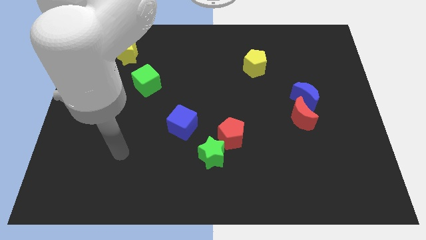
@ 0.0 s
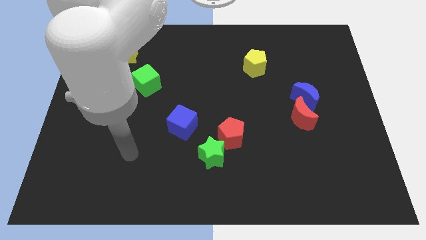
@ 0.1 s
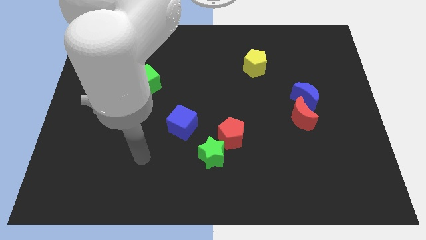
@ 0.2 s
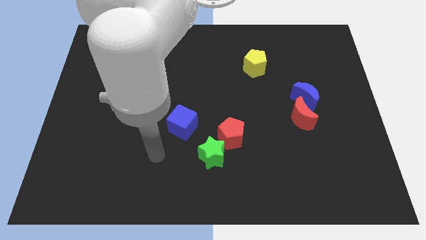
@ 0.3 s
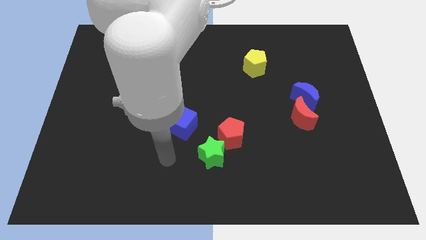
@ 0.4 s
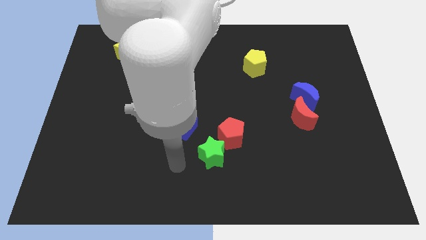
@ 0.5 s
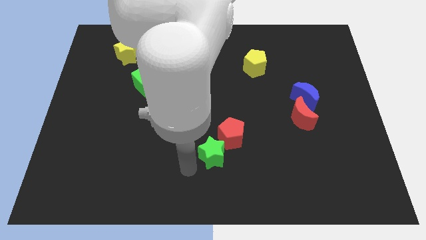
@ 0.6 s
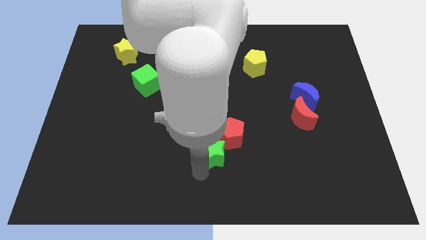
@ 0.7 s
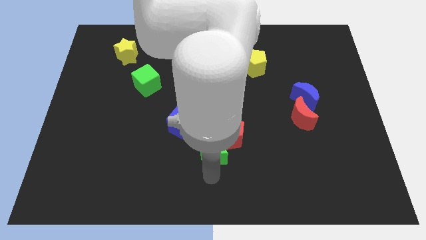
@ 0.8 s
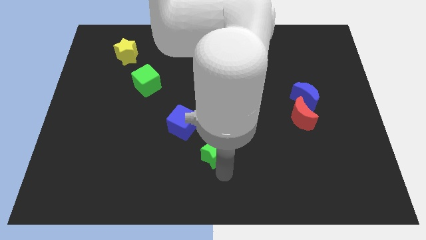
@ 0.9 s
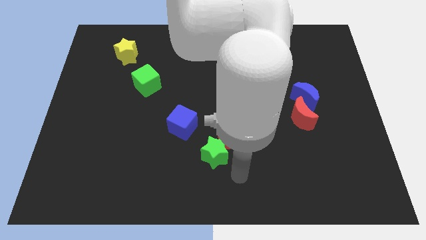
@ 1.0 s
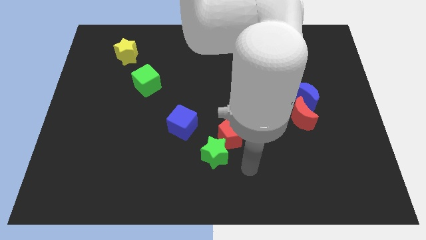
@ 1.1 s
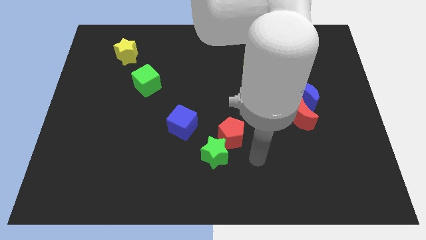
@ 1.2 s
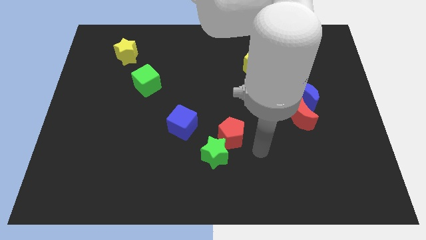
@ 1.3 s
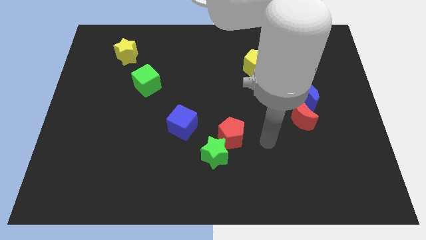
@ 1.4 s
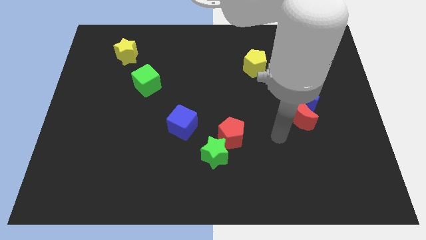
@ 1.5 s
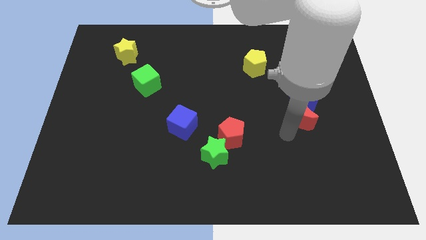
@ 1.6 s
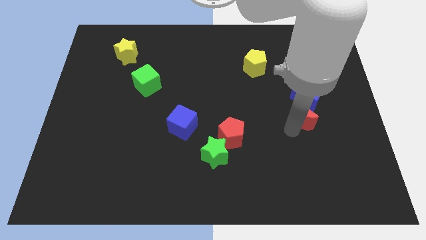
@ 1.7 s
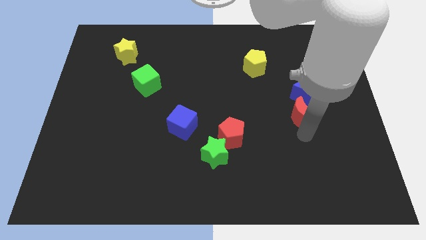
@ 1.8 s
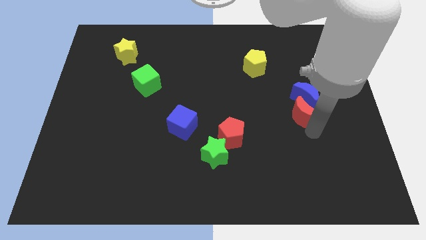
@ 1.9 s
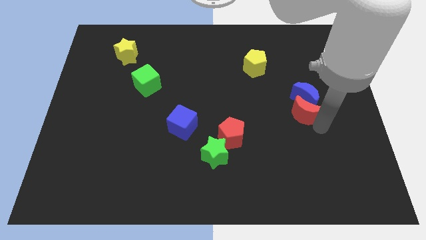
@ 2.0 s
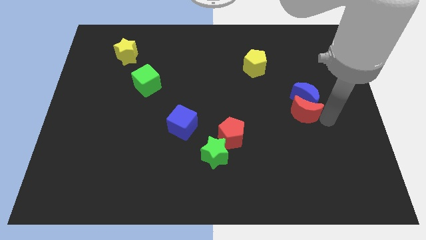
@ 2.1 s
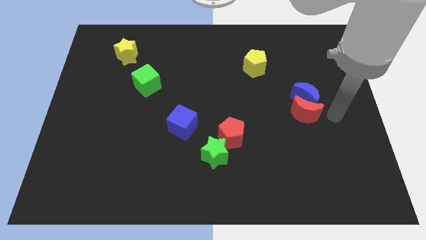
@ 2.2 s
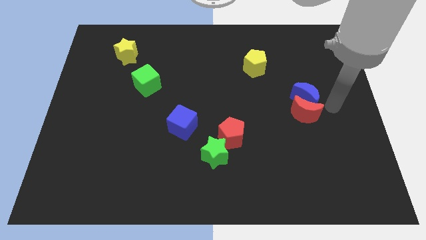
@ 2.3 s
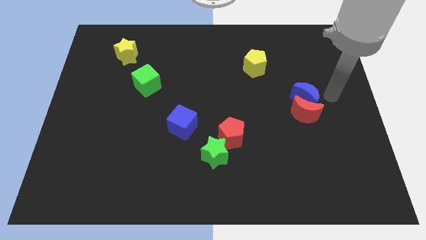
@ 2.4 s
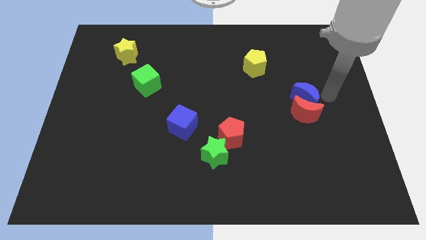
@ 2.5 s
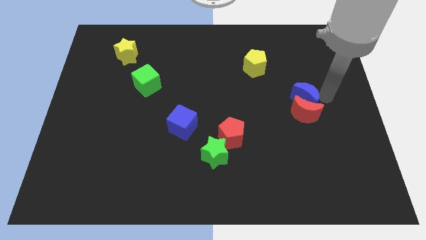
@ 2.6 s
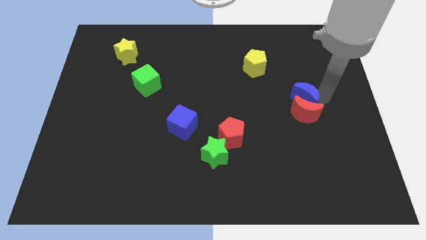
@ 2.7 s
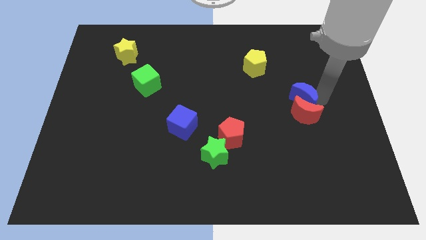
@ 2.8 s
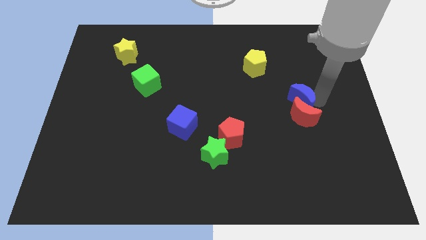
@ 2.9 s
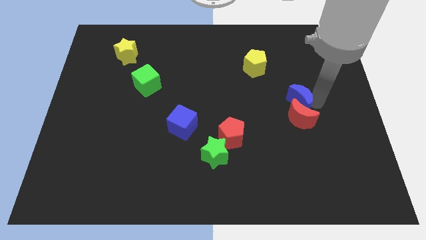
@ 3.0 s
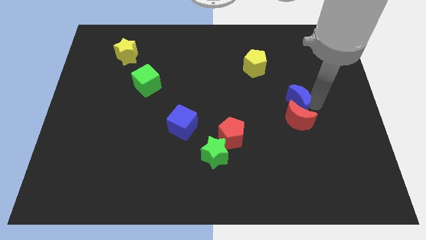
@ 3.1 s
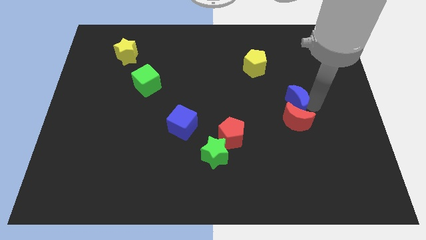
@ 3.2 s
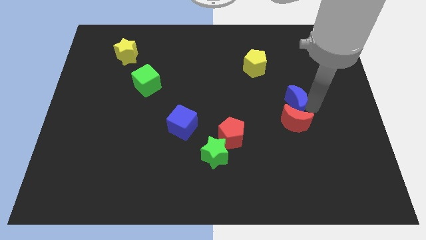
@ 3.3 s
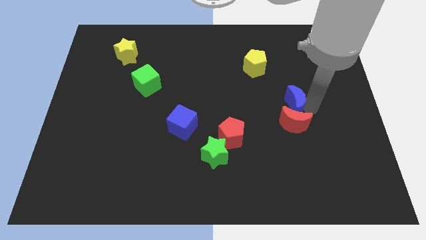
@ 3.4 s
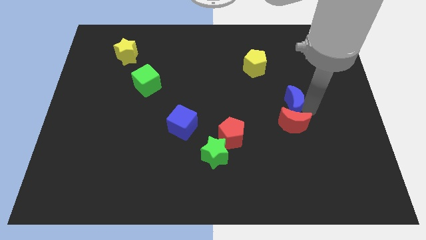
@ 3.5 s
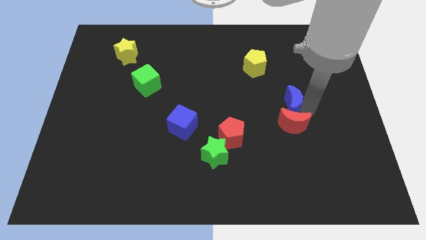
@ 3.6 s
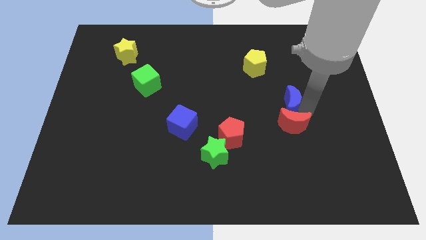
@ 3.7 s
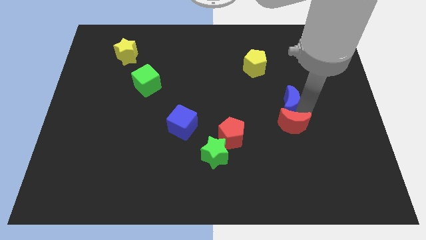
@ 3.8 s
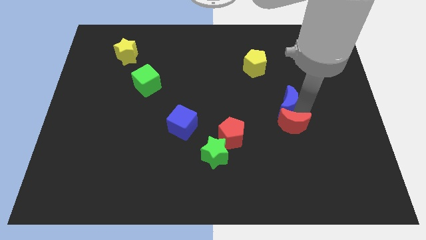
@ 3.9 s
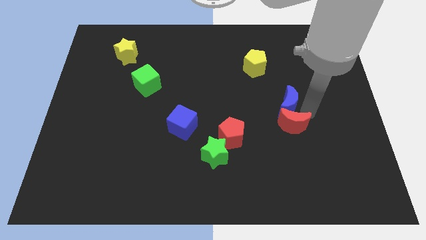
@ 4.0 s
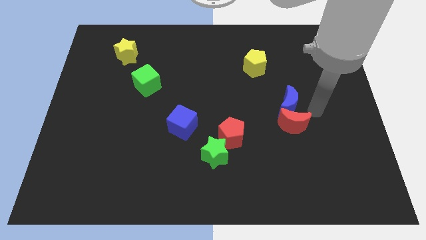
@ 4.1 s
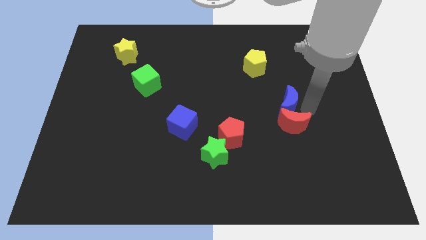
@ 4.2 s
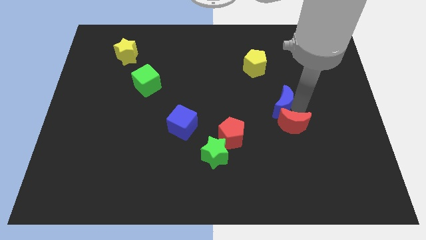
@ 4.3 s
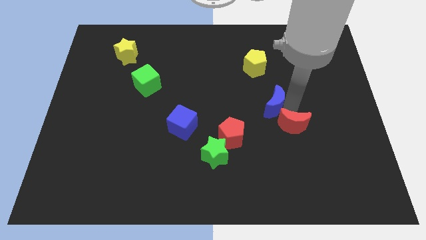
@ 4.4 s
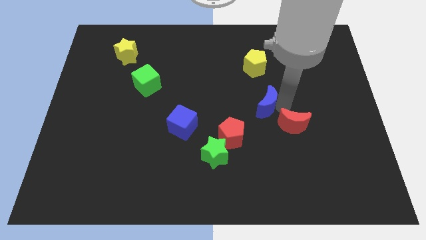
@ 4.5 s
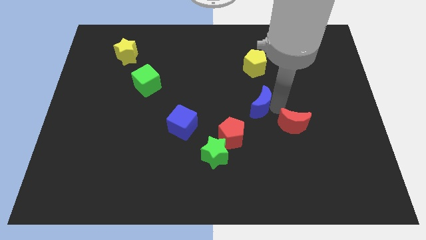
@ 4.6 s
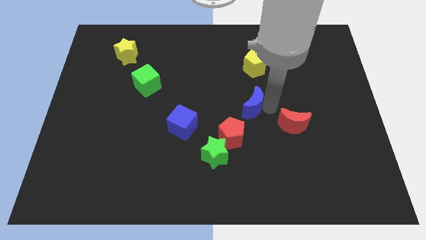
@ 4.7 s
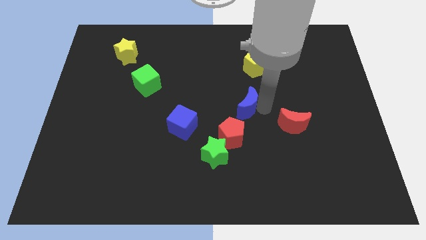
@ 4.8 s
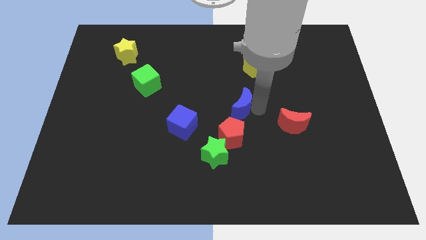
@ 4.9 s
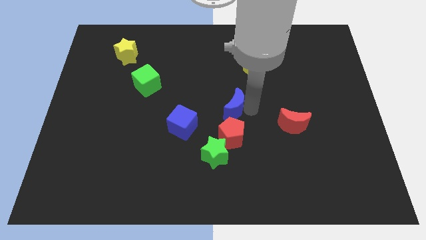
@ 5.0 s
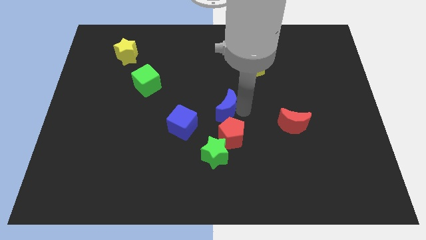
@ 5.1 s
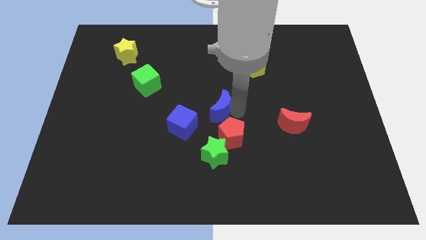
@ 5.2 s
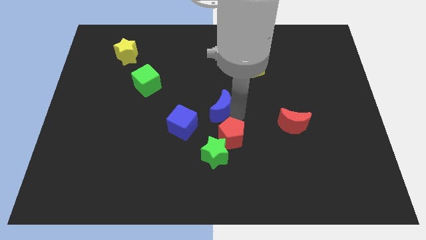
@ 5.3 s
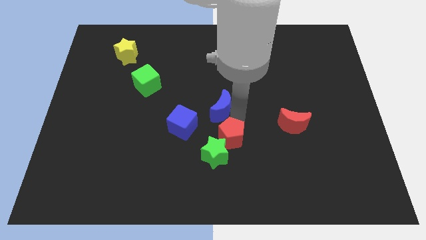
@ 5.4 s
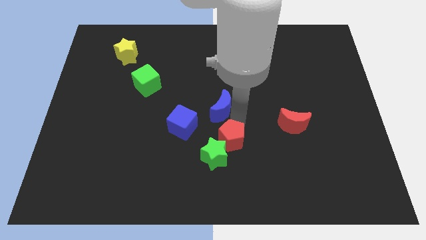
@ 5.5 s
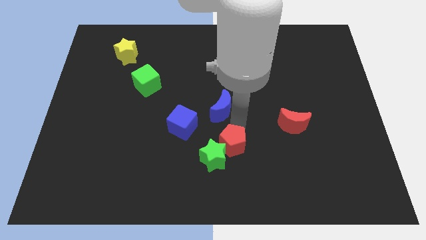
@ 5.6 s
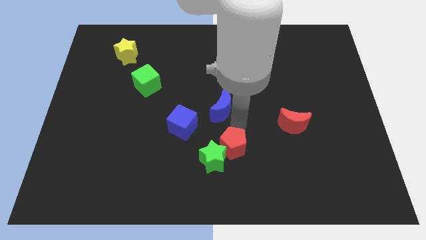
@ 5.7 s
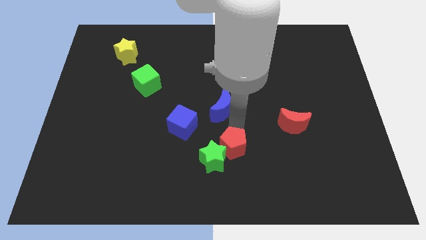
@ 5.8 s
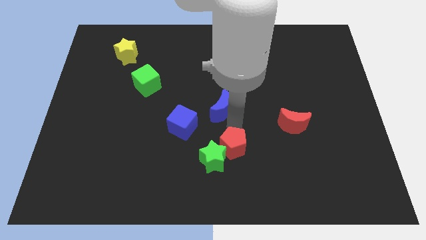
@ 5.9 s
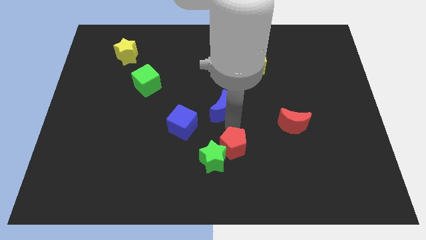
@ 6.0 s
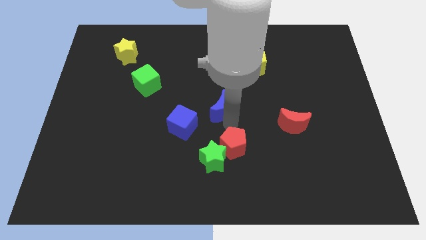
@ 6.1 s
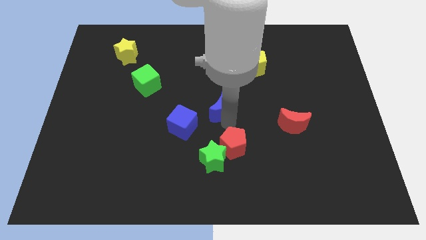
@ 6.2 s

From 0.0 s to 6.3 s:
move the blue moon to the left

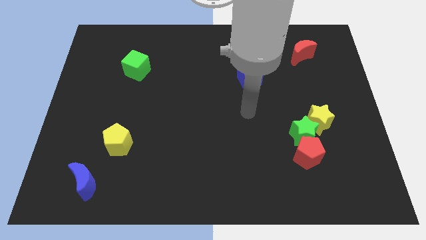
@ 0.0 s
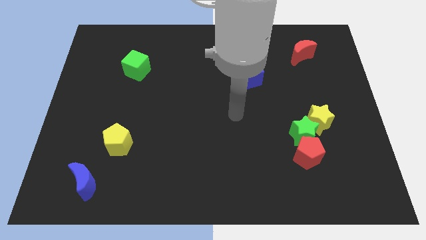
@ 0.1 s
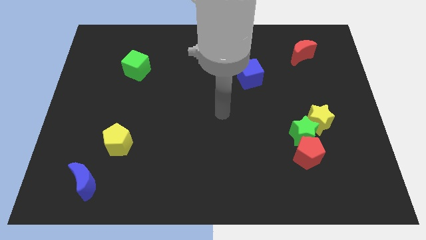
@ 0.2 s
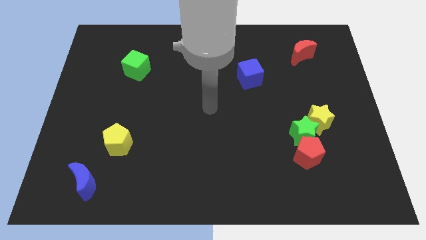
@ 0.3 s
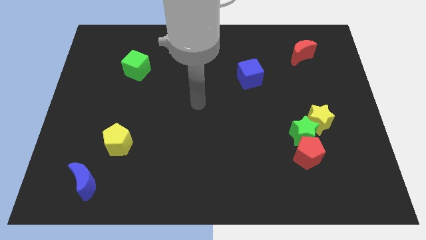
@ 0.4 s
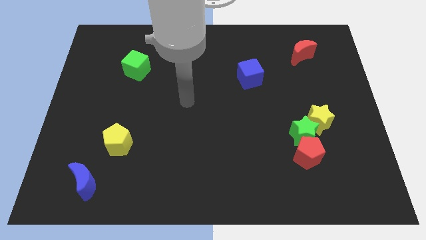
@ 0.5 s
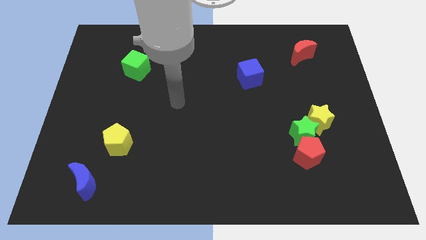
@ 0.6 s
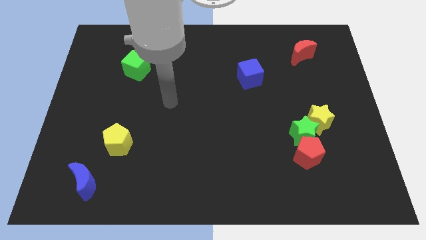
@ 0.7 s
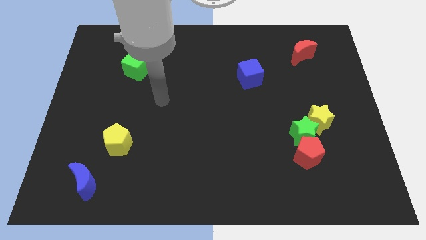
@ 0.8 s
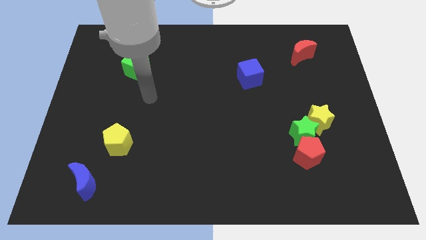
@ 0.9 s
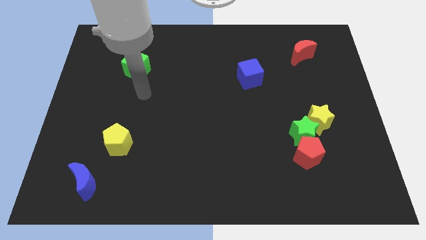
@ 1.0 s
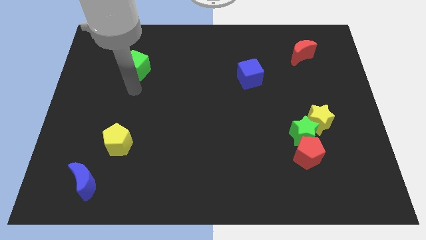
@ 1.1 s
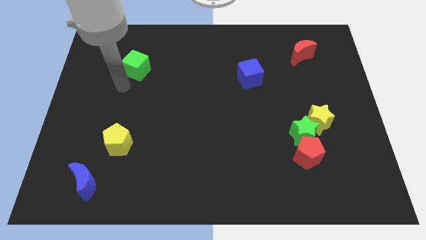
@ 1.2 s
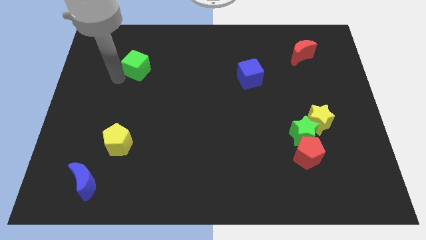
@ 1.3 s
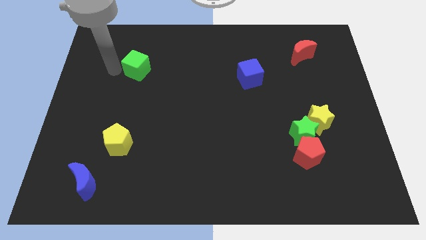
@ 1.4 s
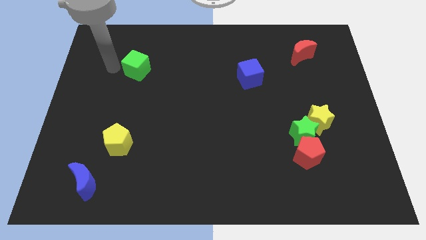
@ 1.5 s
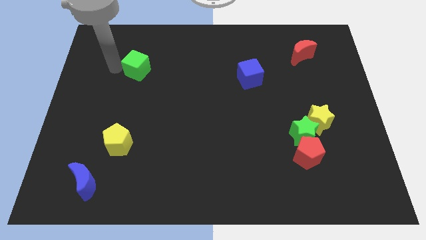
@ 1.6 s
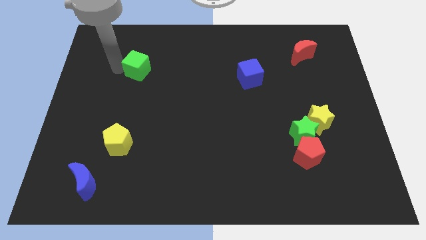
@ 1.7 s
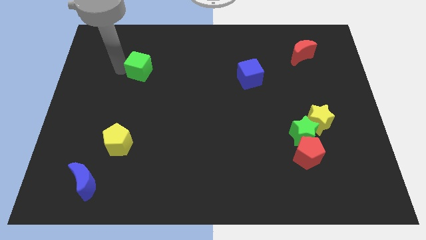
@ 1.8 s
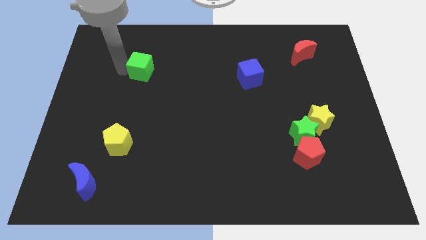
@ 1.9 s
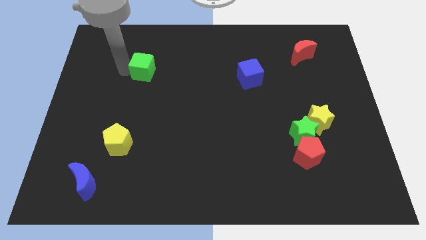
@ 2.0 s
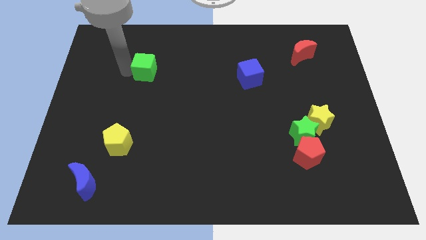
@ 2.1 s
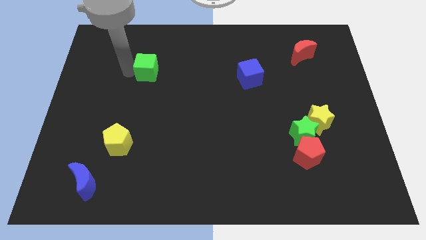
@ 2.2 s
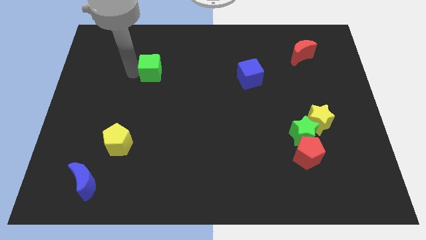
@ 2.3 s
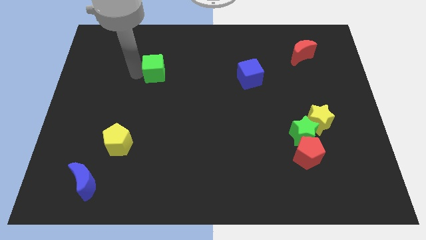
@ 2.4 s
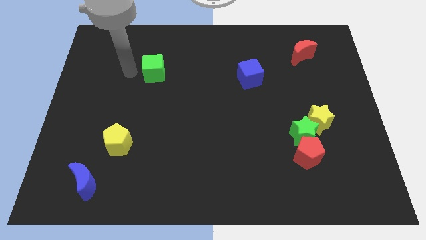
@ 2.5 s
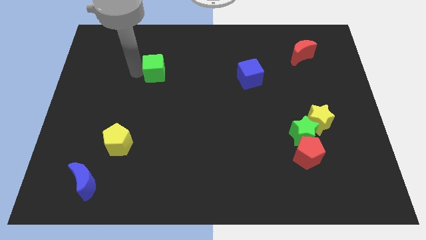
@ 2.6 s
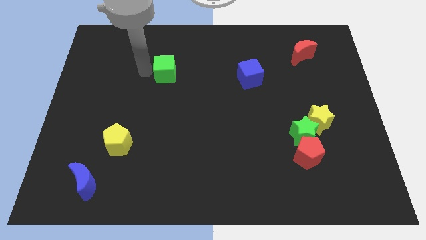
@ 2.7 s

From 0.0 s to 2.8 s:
slightly move the green cube right
